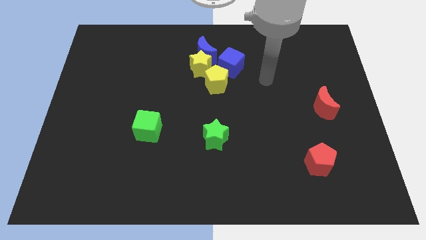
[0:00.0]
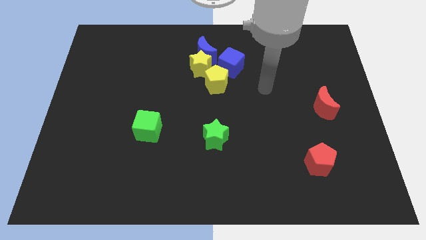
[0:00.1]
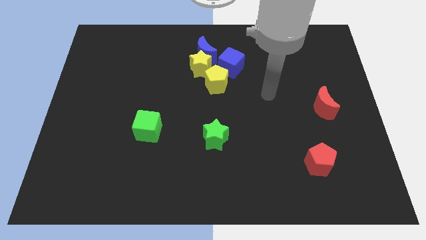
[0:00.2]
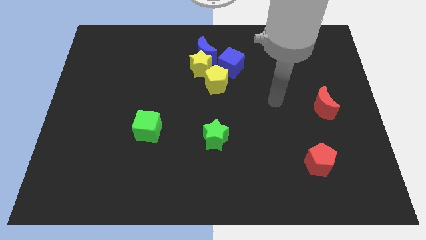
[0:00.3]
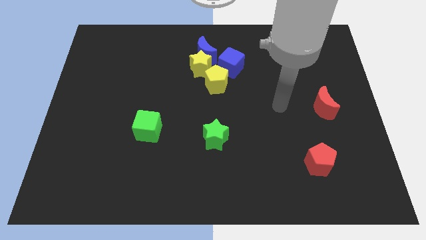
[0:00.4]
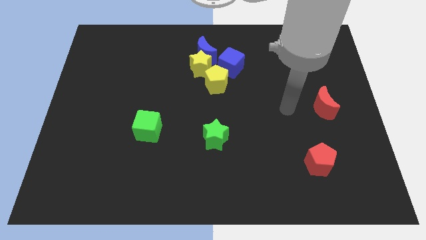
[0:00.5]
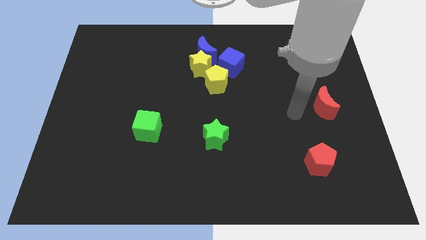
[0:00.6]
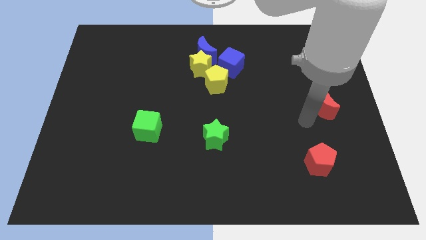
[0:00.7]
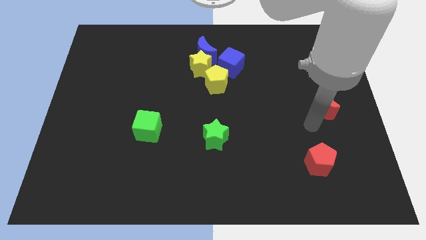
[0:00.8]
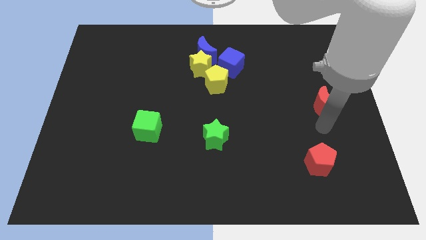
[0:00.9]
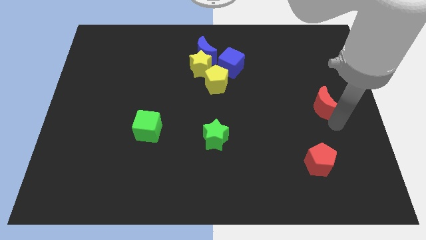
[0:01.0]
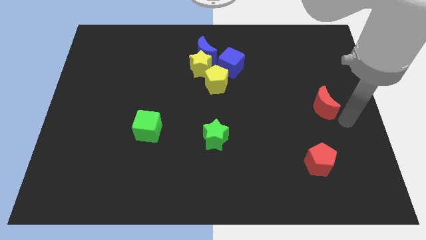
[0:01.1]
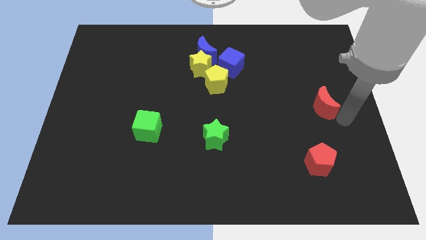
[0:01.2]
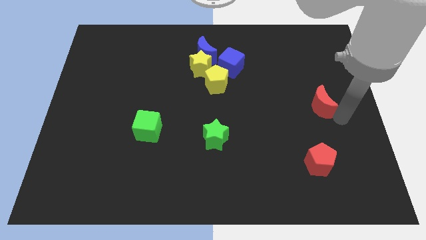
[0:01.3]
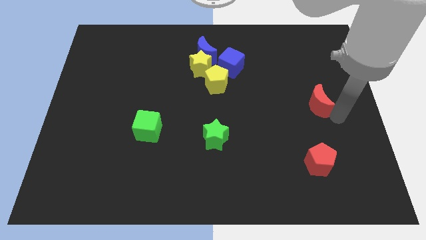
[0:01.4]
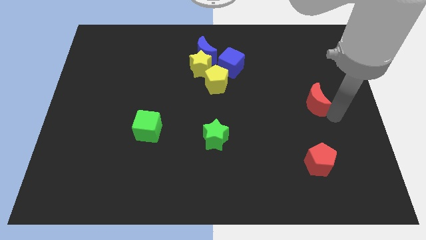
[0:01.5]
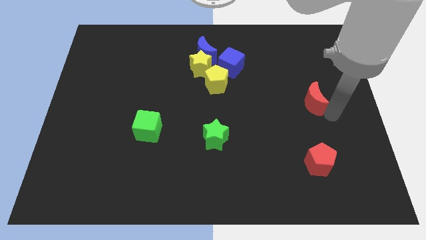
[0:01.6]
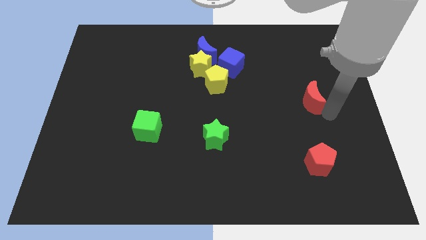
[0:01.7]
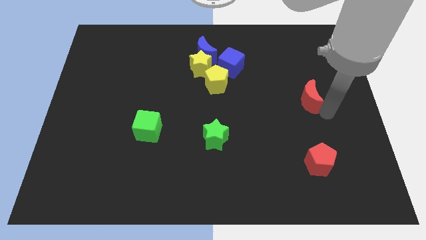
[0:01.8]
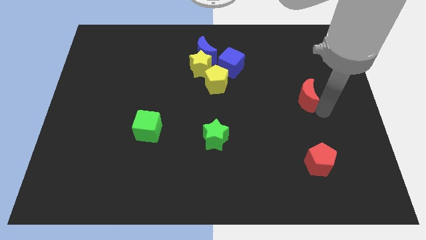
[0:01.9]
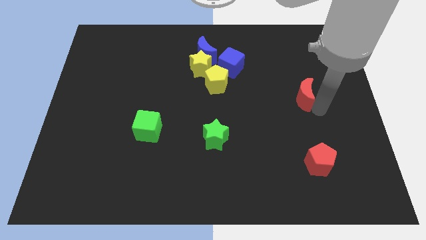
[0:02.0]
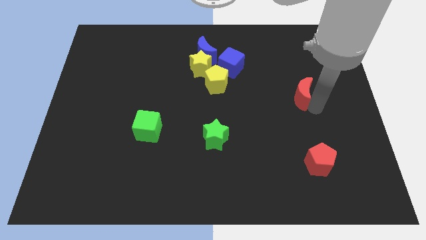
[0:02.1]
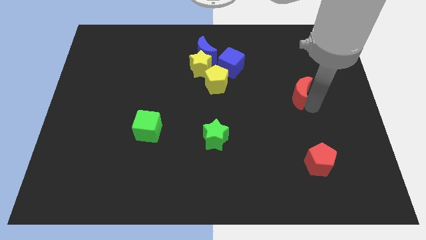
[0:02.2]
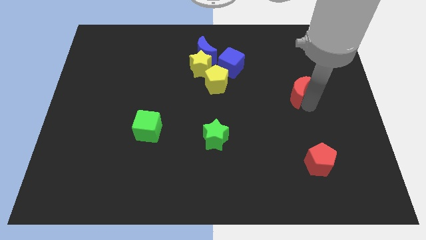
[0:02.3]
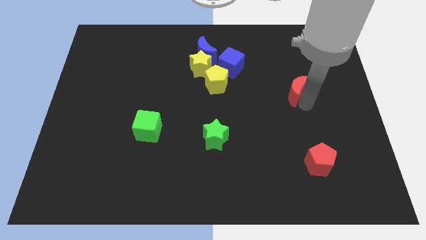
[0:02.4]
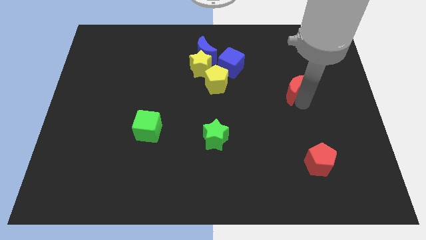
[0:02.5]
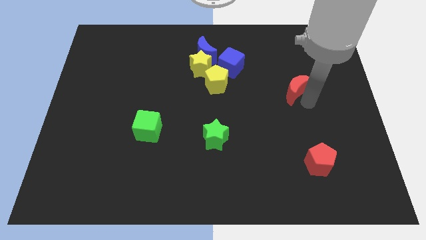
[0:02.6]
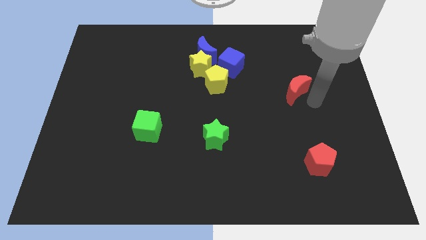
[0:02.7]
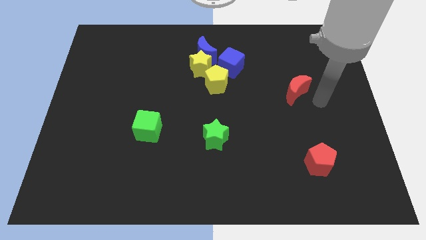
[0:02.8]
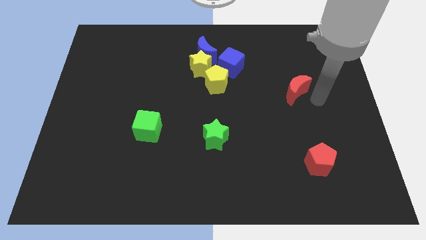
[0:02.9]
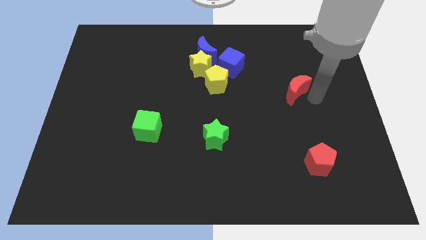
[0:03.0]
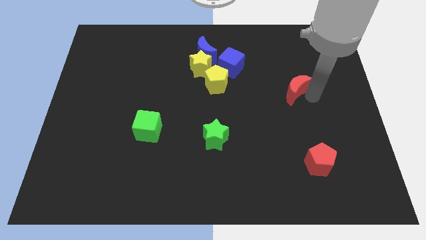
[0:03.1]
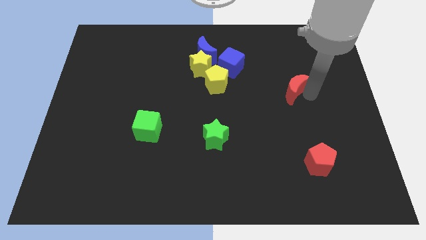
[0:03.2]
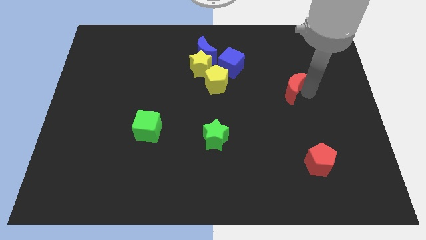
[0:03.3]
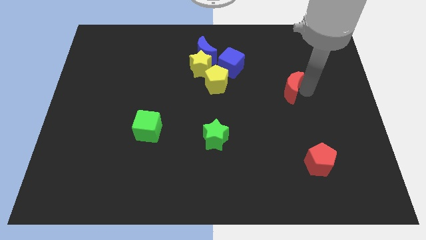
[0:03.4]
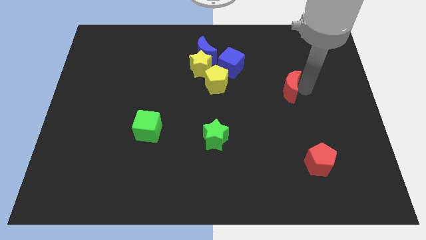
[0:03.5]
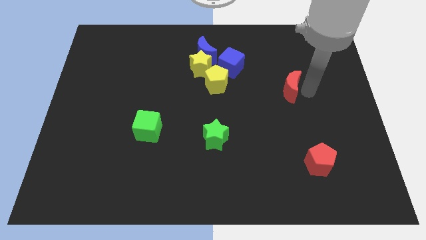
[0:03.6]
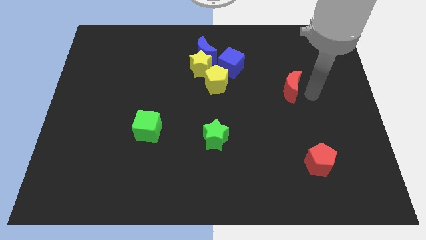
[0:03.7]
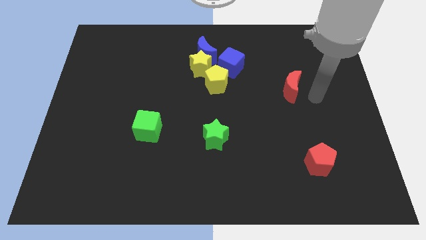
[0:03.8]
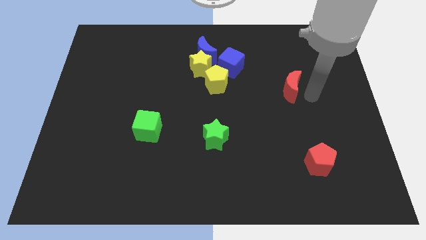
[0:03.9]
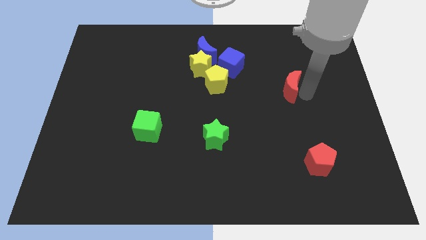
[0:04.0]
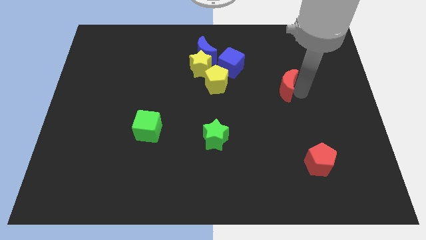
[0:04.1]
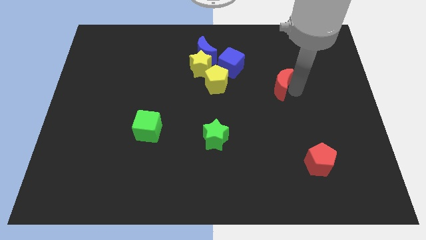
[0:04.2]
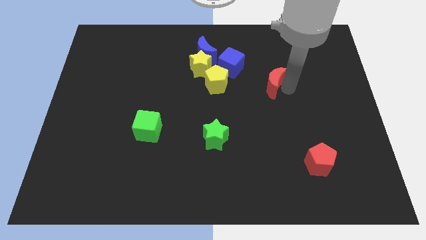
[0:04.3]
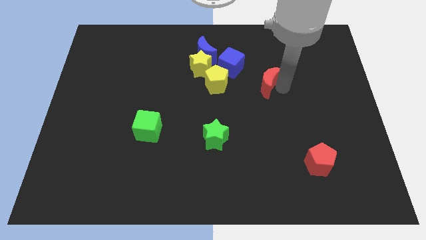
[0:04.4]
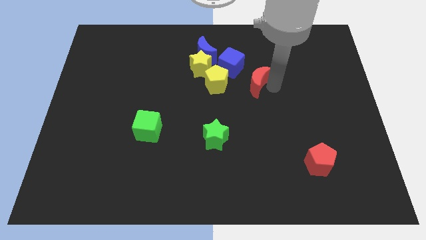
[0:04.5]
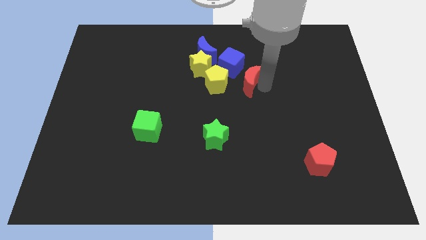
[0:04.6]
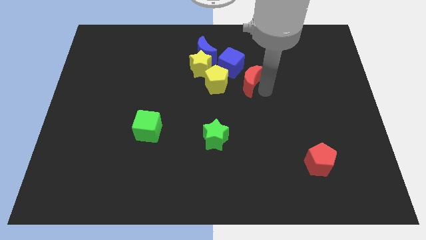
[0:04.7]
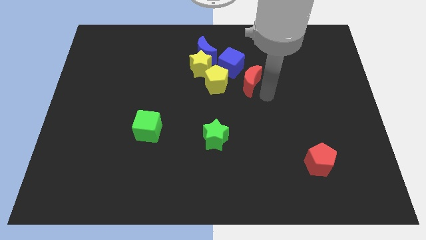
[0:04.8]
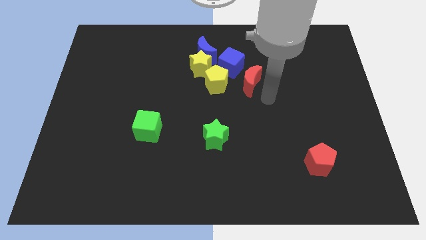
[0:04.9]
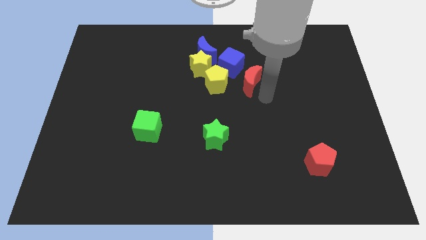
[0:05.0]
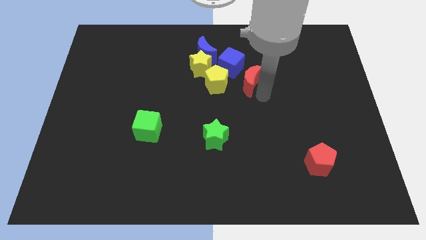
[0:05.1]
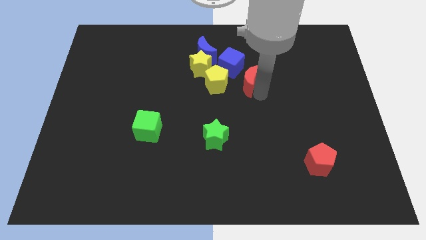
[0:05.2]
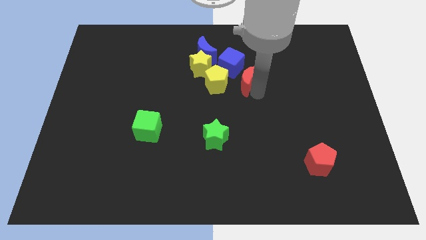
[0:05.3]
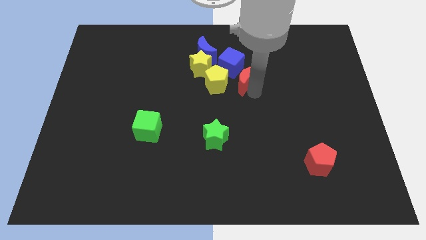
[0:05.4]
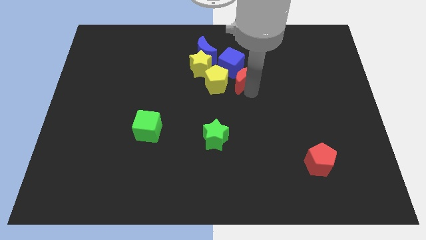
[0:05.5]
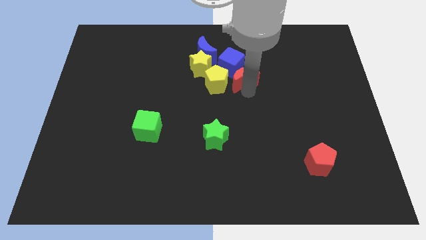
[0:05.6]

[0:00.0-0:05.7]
move the red moon to the blue cube

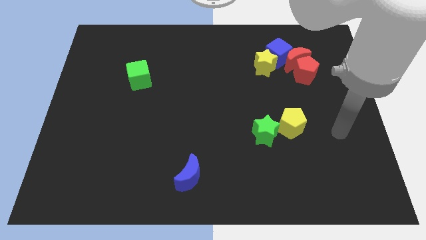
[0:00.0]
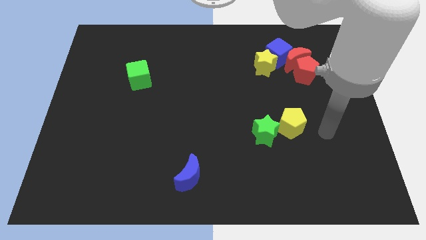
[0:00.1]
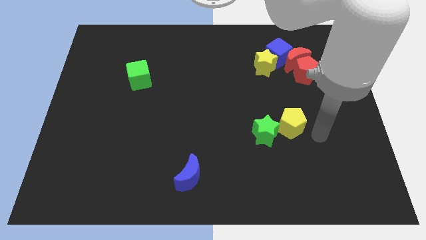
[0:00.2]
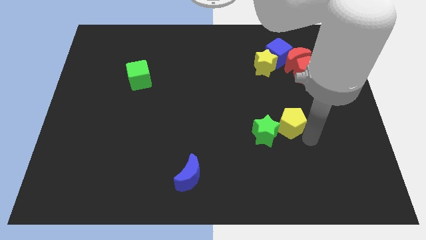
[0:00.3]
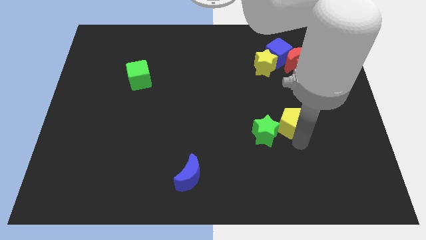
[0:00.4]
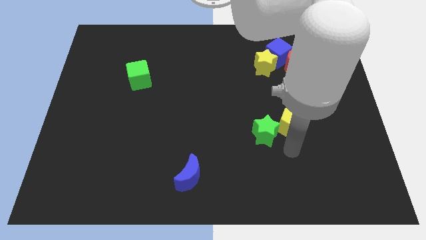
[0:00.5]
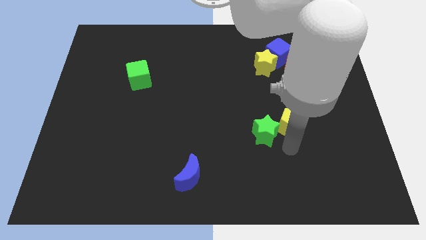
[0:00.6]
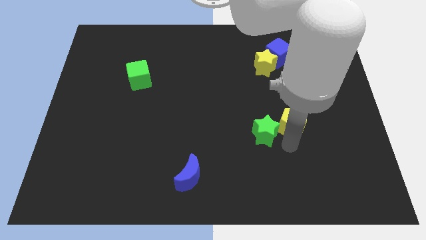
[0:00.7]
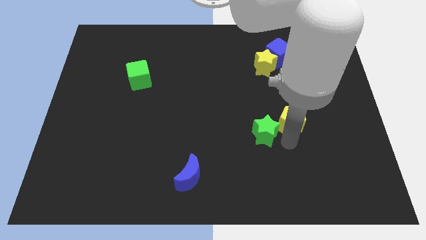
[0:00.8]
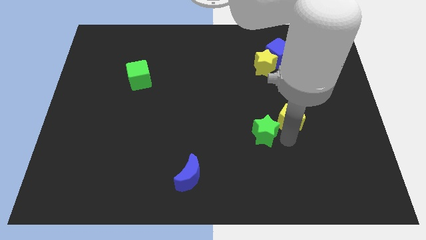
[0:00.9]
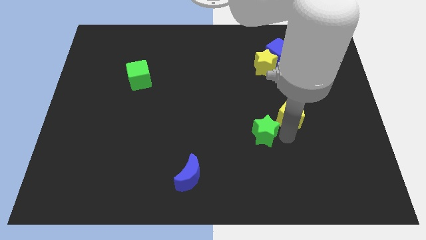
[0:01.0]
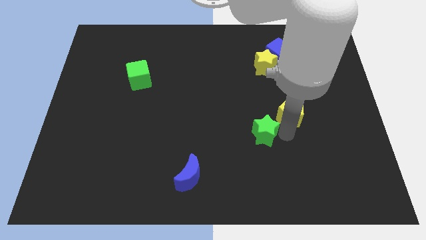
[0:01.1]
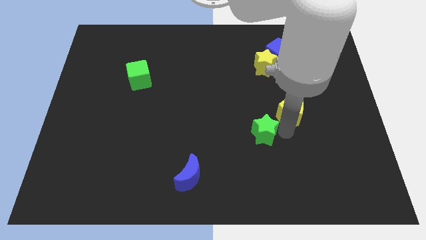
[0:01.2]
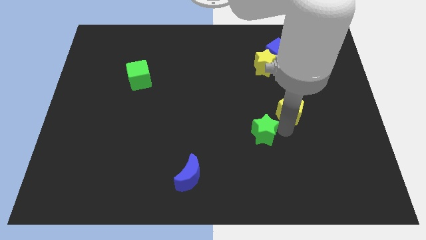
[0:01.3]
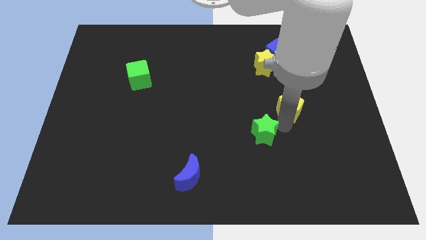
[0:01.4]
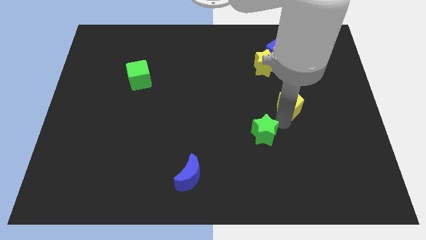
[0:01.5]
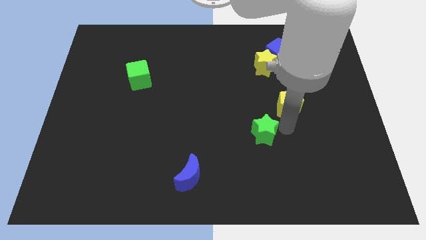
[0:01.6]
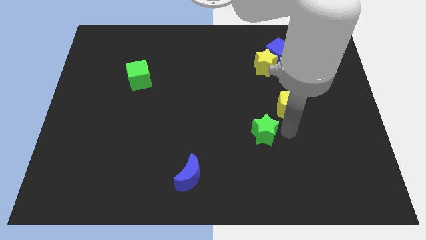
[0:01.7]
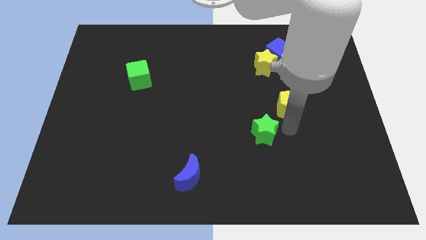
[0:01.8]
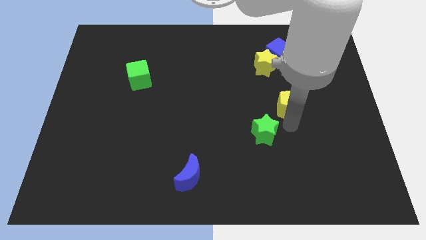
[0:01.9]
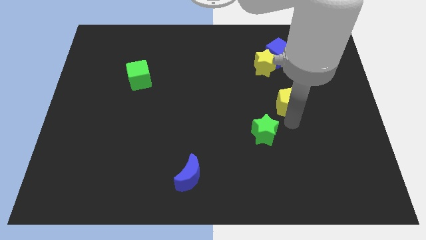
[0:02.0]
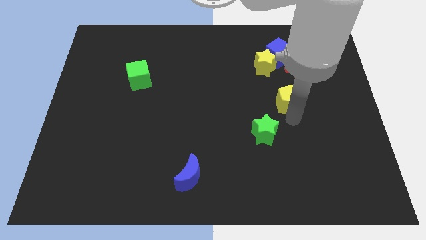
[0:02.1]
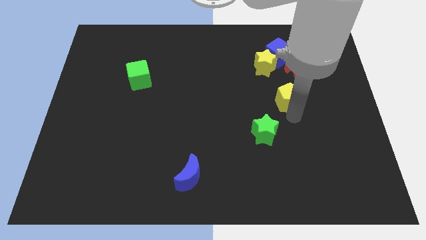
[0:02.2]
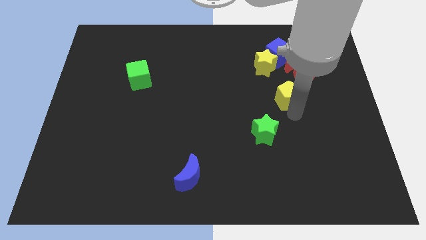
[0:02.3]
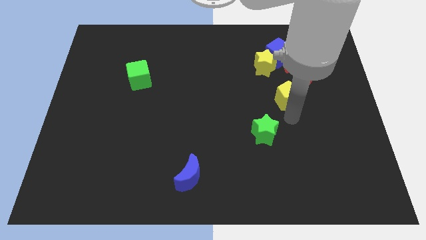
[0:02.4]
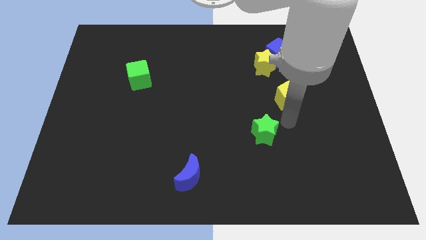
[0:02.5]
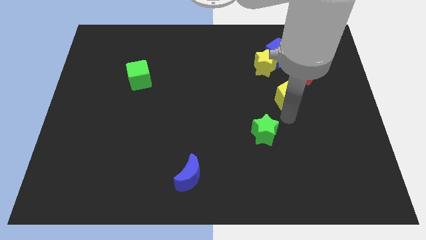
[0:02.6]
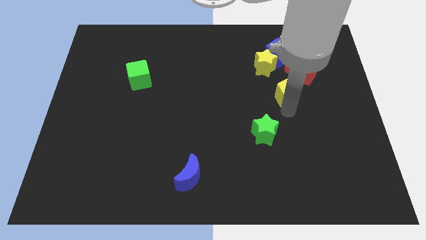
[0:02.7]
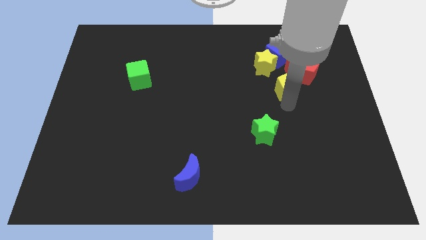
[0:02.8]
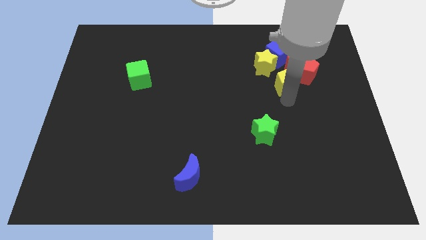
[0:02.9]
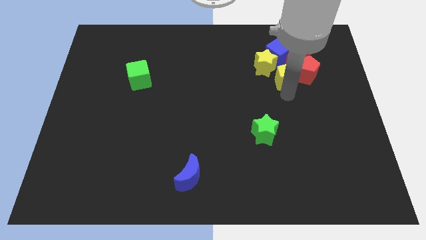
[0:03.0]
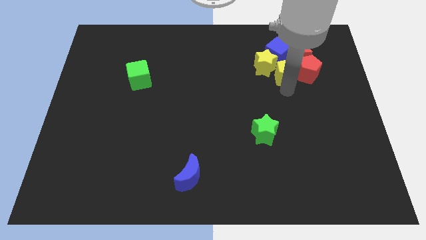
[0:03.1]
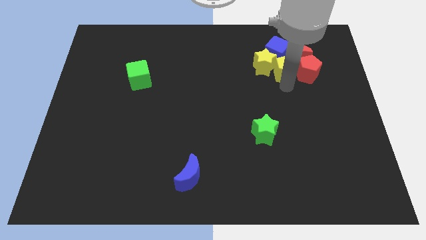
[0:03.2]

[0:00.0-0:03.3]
move the yellow pentagon to the red moon
